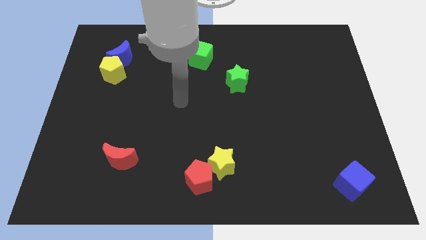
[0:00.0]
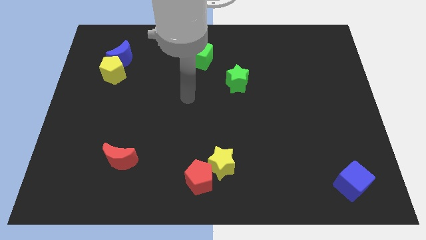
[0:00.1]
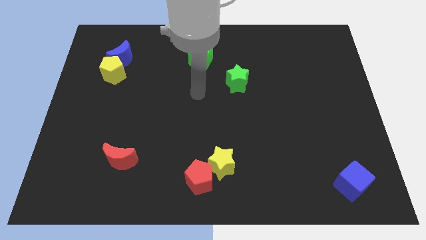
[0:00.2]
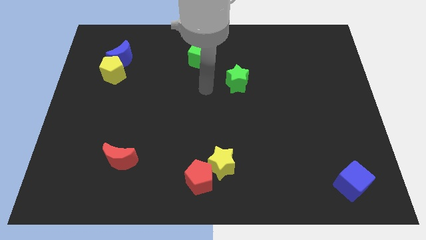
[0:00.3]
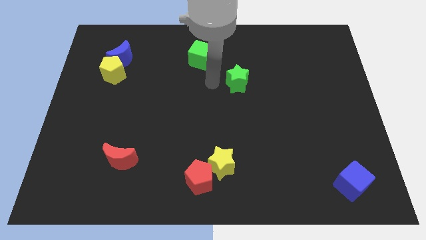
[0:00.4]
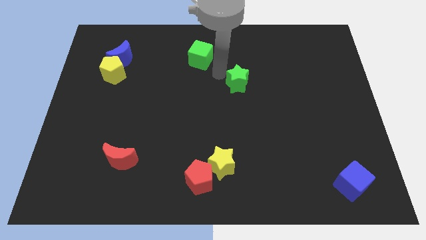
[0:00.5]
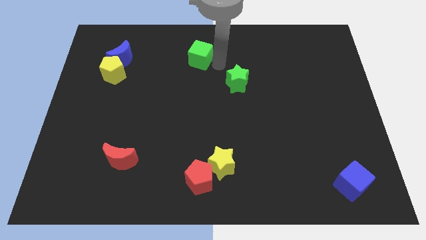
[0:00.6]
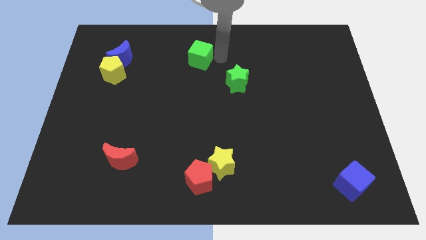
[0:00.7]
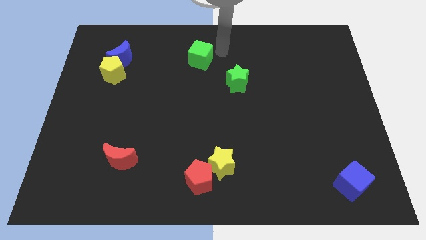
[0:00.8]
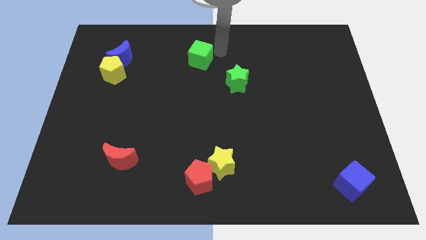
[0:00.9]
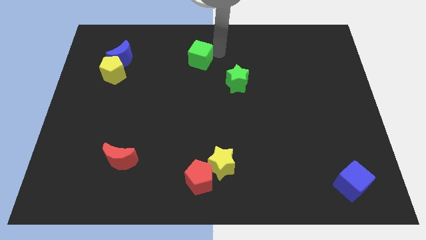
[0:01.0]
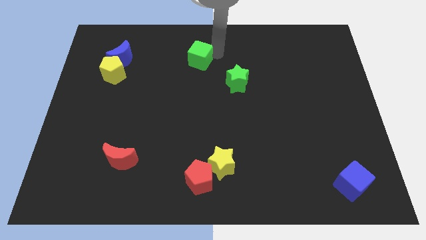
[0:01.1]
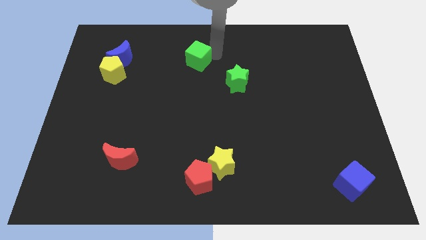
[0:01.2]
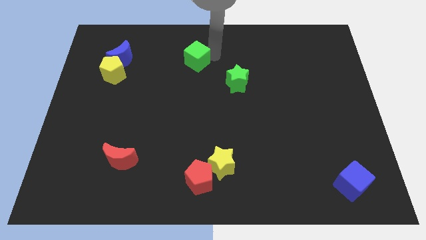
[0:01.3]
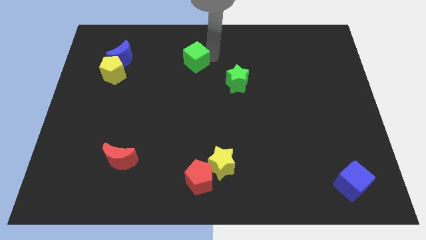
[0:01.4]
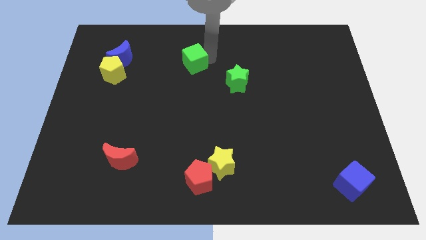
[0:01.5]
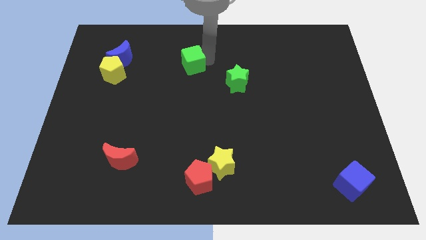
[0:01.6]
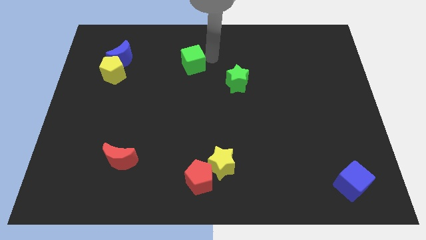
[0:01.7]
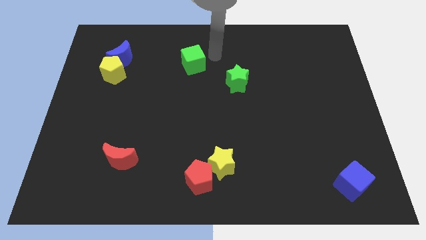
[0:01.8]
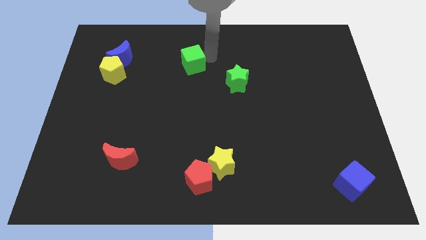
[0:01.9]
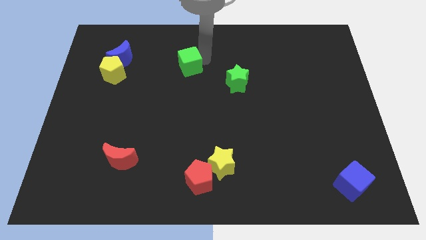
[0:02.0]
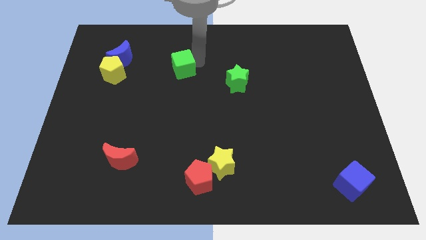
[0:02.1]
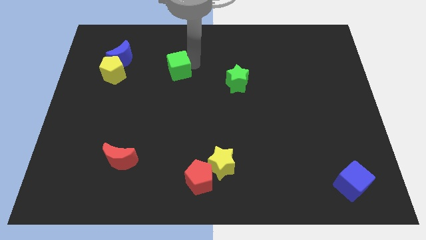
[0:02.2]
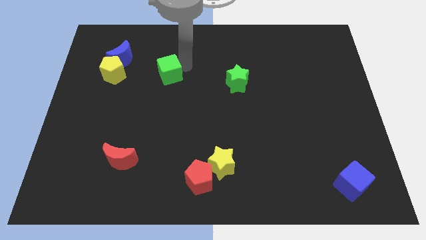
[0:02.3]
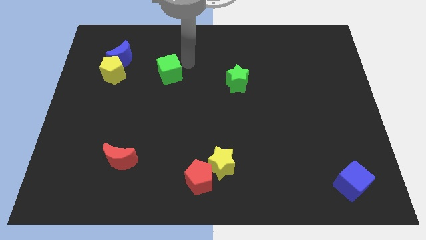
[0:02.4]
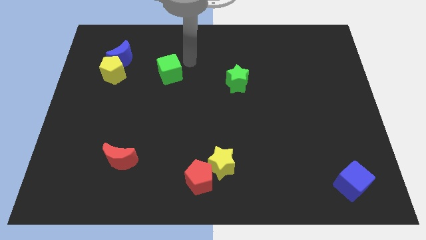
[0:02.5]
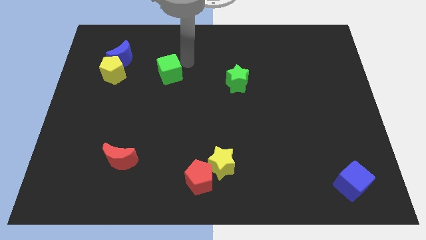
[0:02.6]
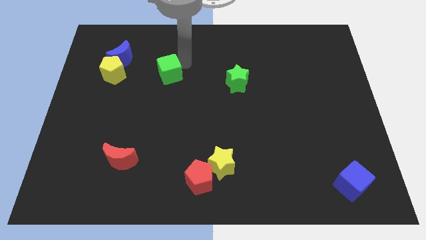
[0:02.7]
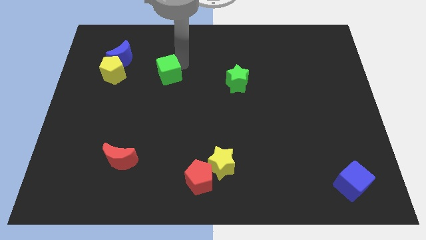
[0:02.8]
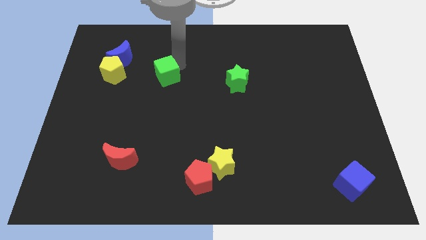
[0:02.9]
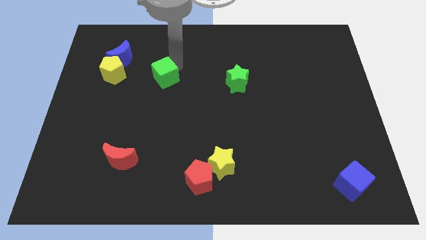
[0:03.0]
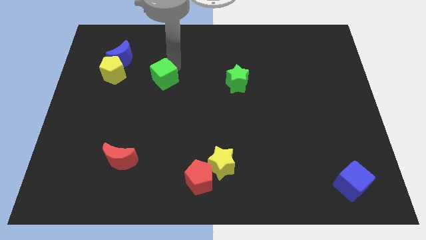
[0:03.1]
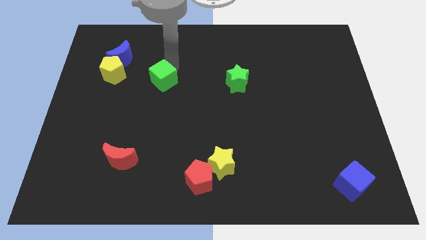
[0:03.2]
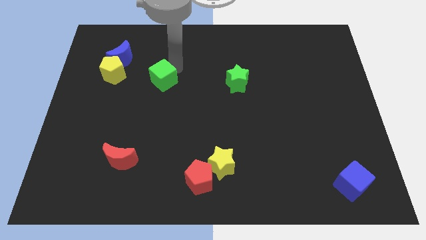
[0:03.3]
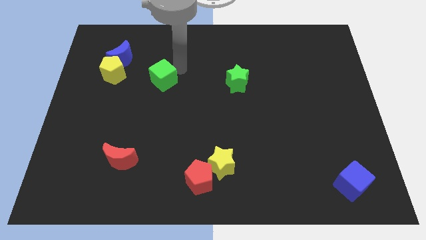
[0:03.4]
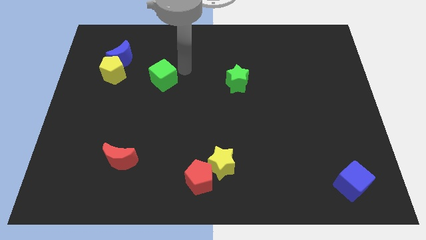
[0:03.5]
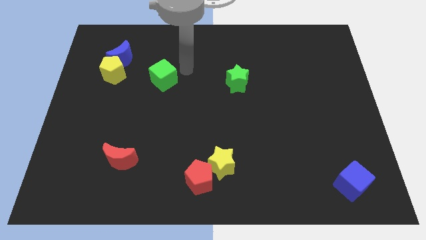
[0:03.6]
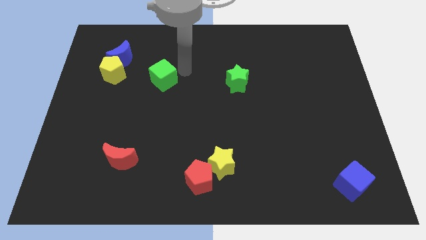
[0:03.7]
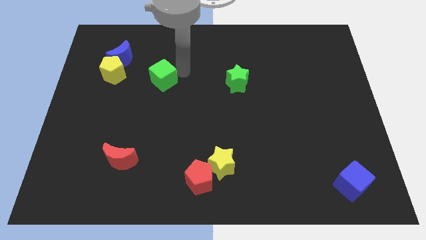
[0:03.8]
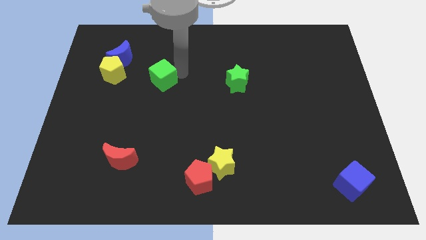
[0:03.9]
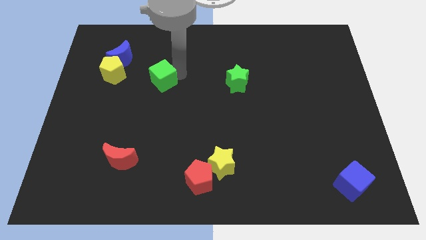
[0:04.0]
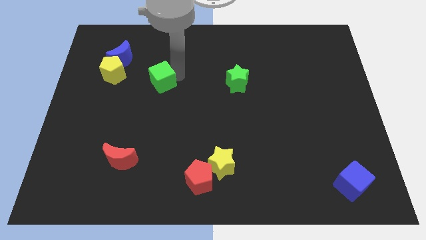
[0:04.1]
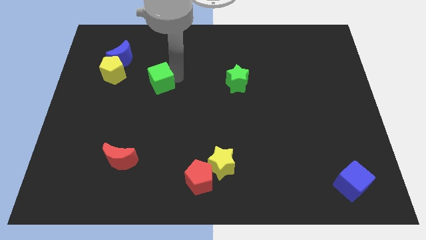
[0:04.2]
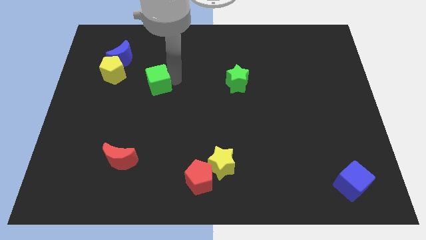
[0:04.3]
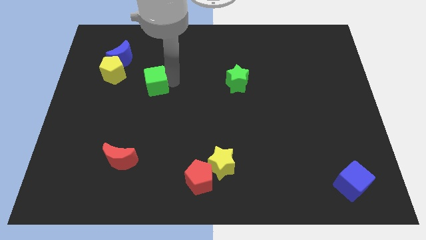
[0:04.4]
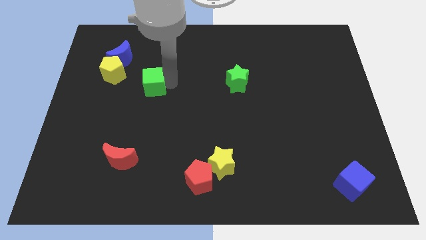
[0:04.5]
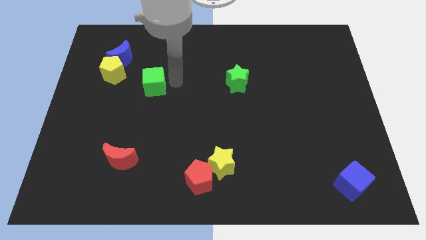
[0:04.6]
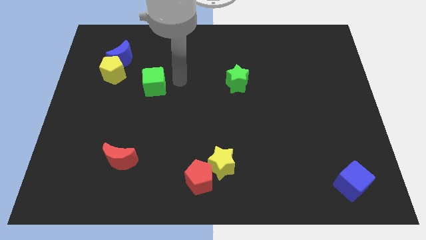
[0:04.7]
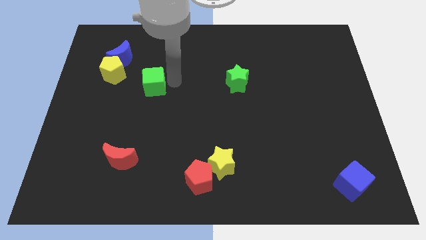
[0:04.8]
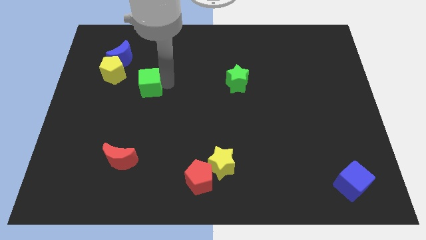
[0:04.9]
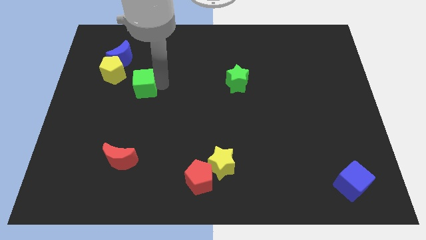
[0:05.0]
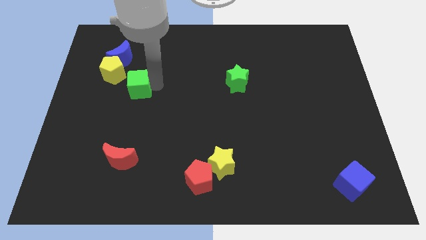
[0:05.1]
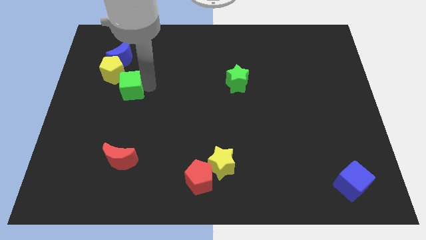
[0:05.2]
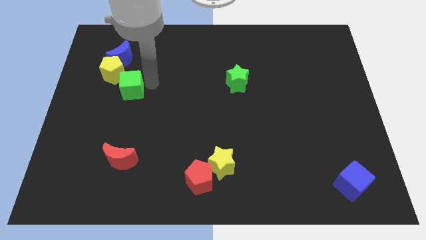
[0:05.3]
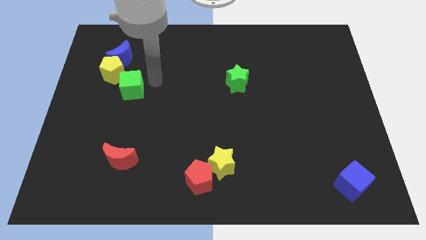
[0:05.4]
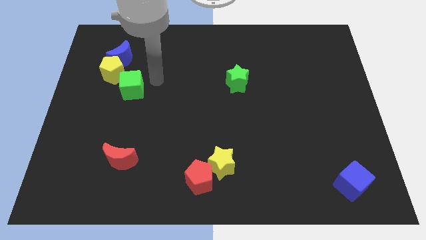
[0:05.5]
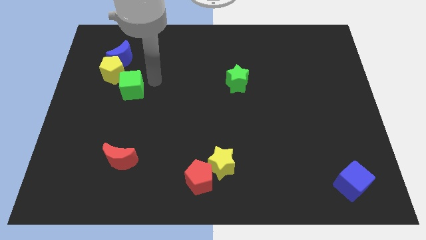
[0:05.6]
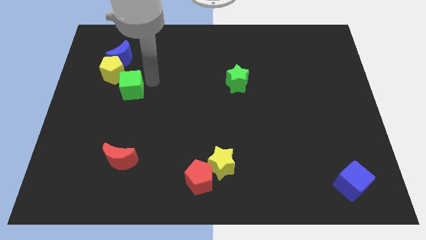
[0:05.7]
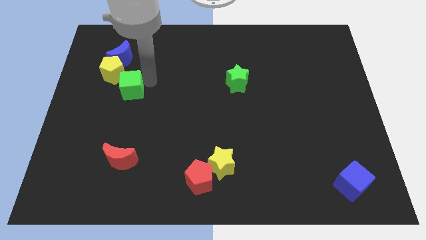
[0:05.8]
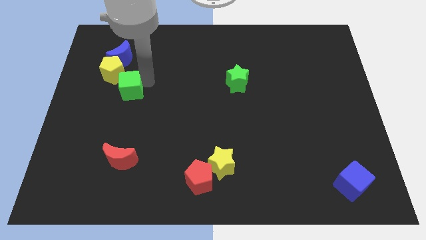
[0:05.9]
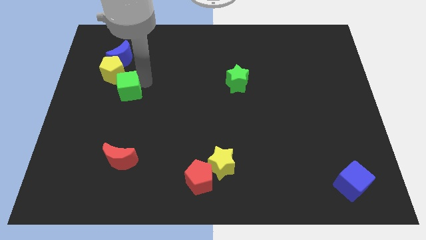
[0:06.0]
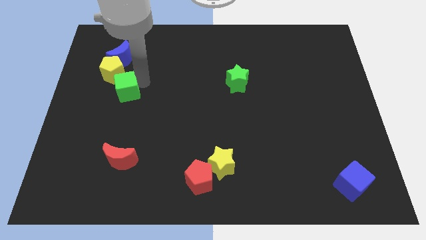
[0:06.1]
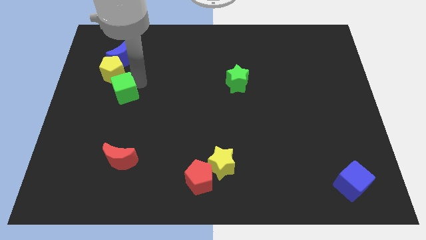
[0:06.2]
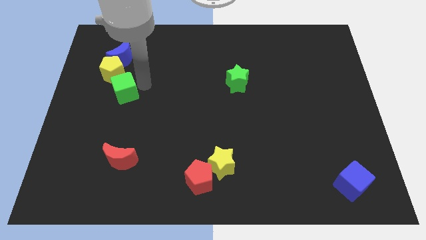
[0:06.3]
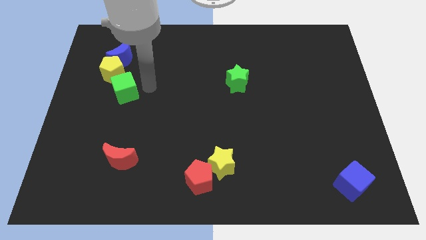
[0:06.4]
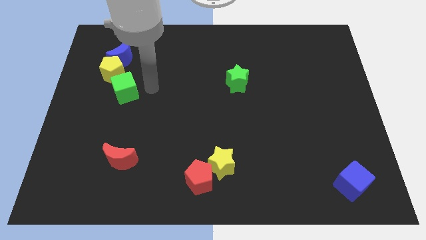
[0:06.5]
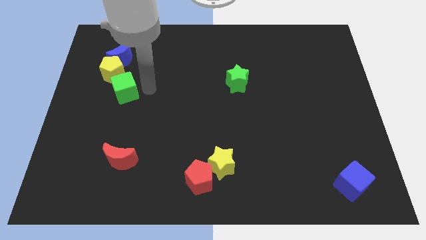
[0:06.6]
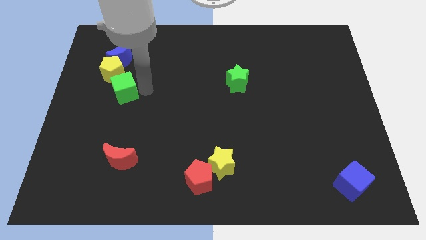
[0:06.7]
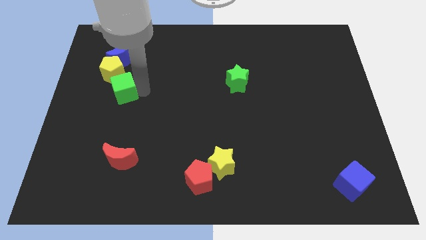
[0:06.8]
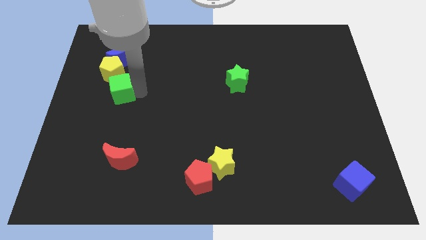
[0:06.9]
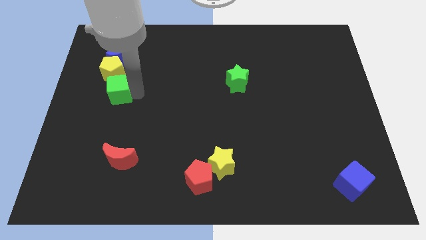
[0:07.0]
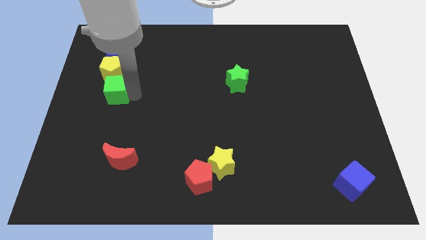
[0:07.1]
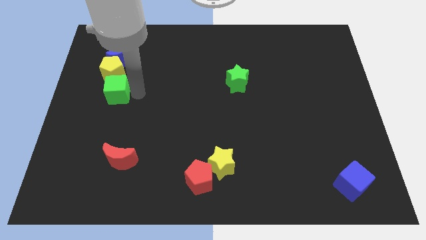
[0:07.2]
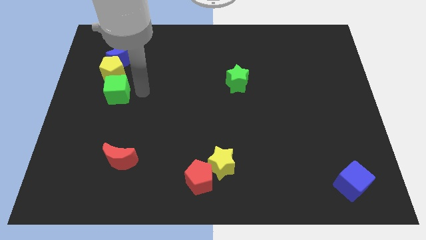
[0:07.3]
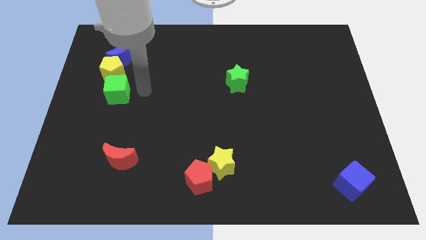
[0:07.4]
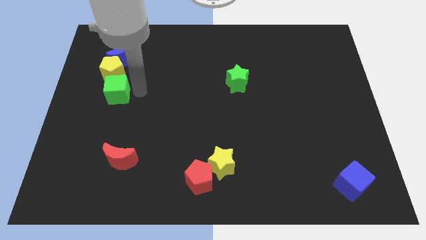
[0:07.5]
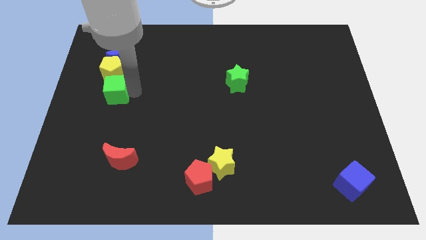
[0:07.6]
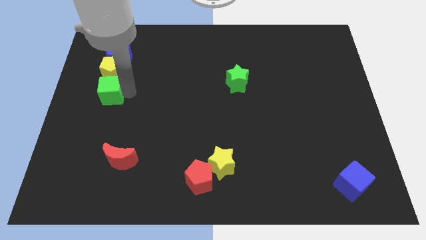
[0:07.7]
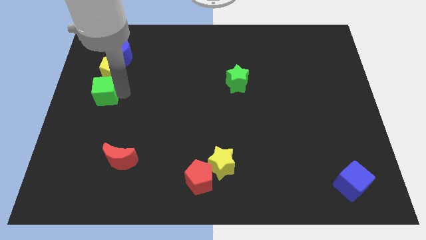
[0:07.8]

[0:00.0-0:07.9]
push the green cube to the left side
